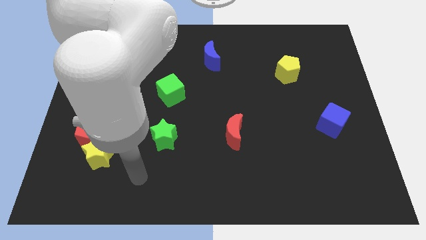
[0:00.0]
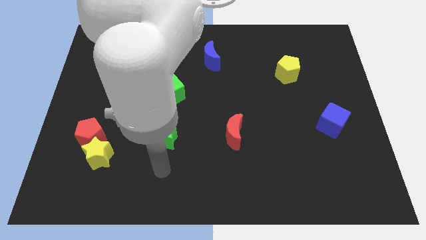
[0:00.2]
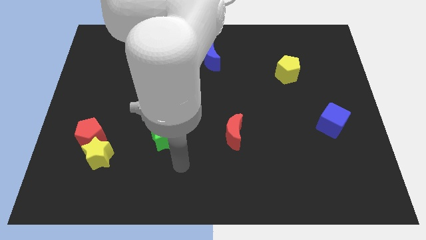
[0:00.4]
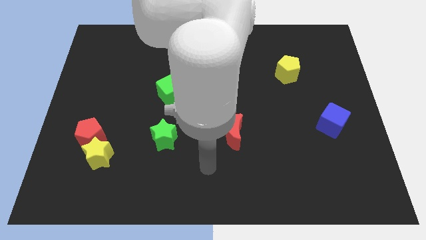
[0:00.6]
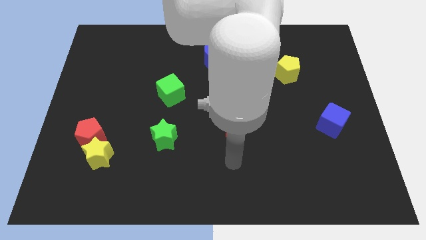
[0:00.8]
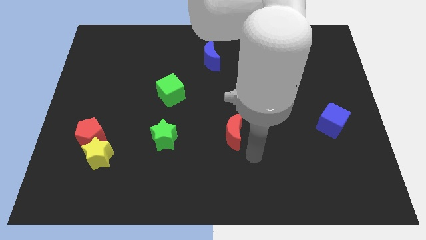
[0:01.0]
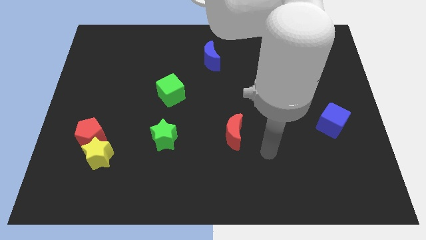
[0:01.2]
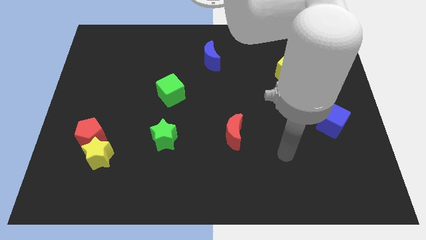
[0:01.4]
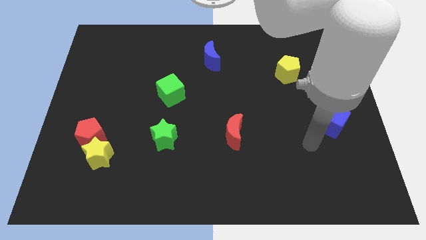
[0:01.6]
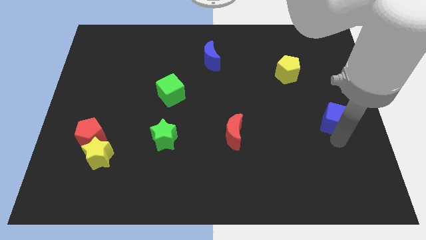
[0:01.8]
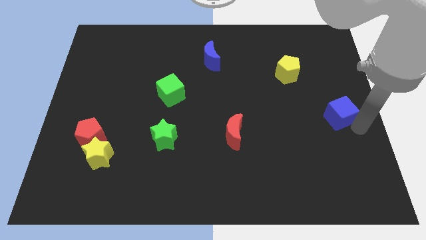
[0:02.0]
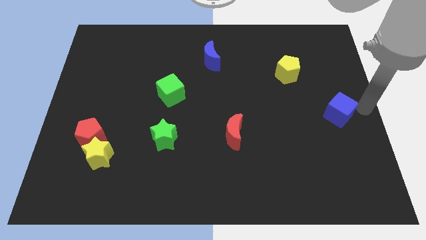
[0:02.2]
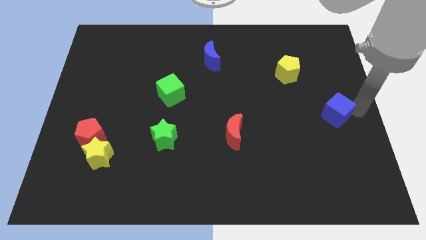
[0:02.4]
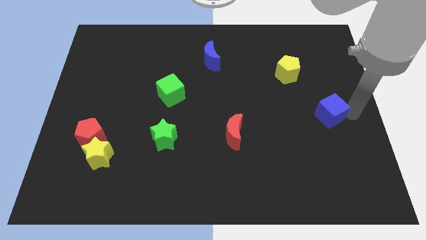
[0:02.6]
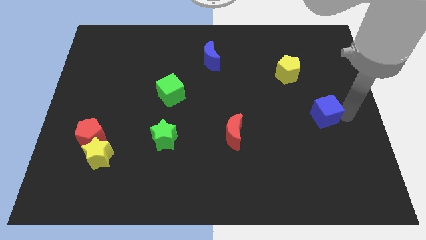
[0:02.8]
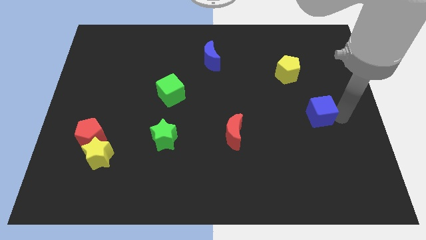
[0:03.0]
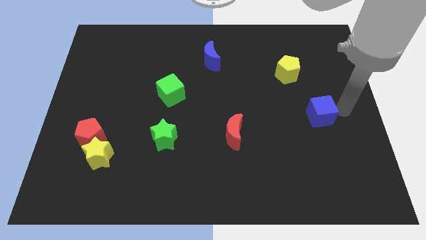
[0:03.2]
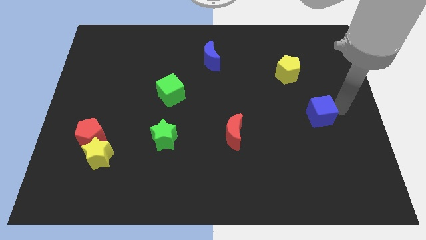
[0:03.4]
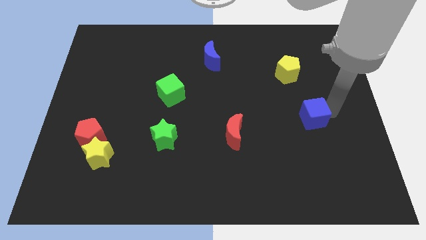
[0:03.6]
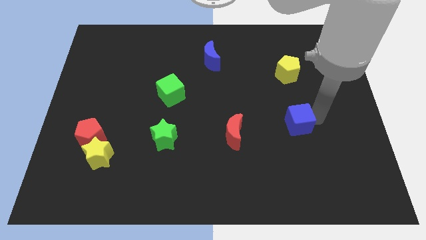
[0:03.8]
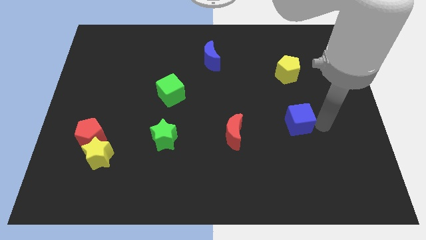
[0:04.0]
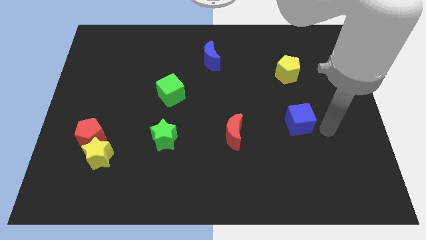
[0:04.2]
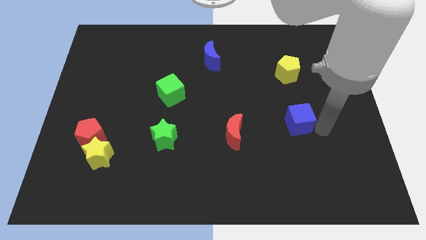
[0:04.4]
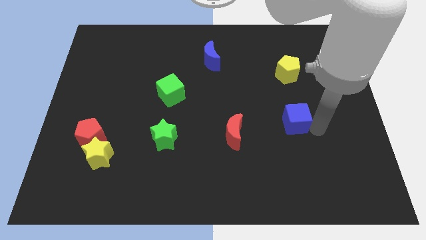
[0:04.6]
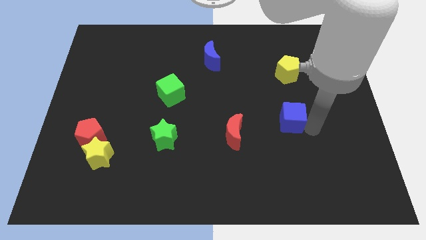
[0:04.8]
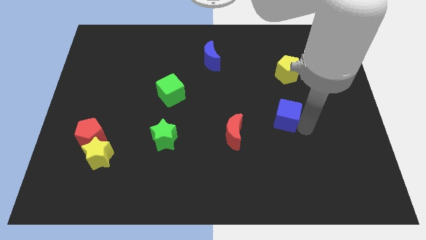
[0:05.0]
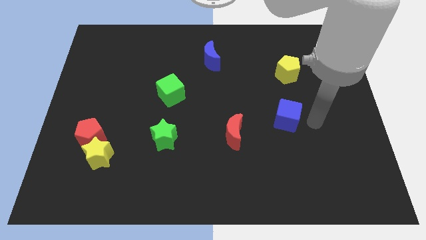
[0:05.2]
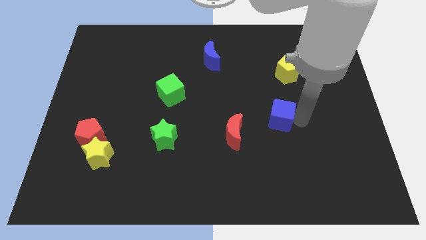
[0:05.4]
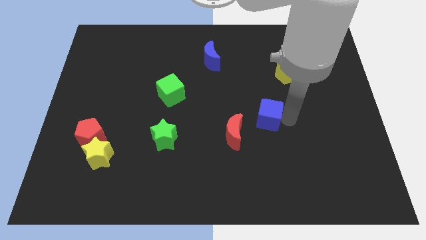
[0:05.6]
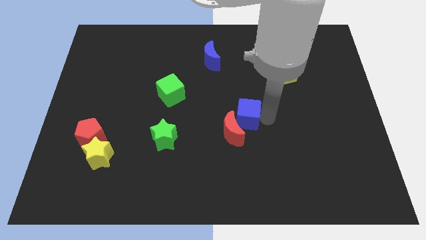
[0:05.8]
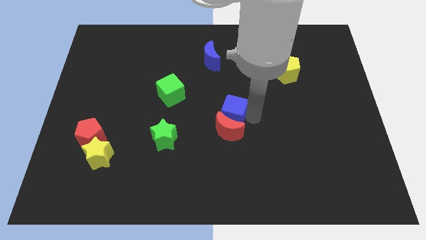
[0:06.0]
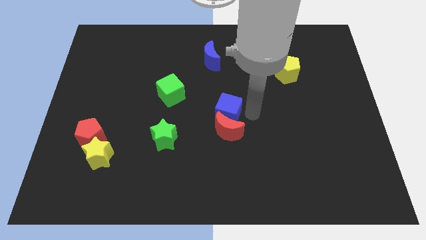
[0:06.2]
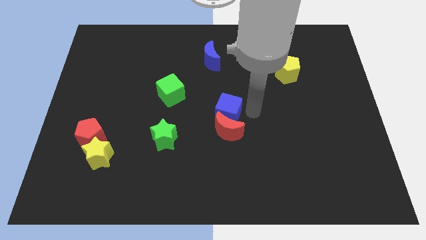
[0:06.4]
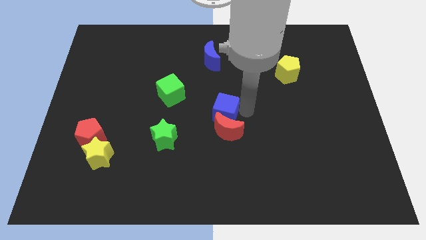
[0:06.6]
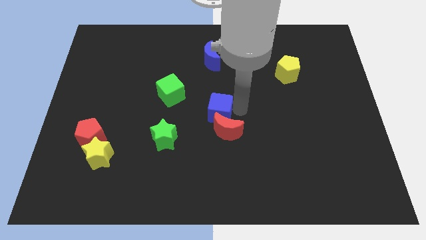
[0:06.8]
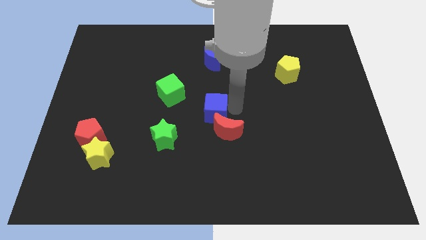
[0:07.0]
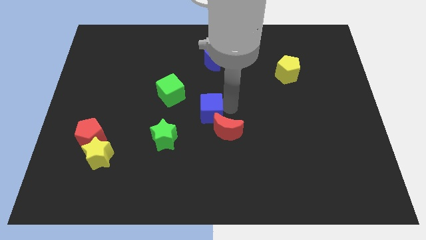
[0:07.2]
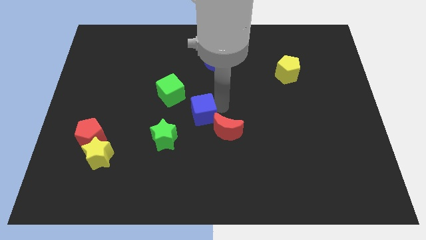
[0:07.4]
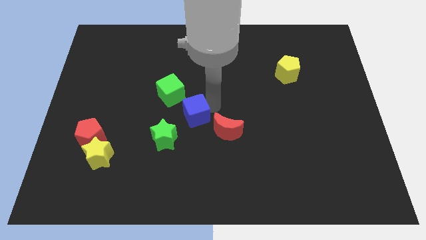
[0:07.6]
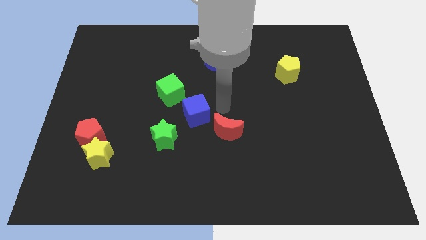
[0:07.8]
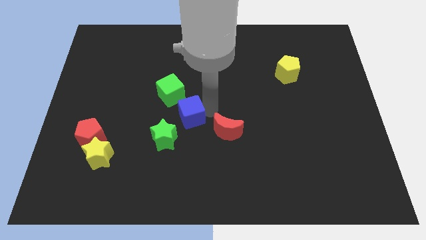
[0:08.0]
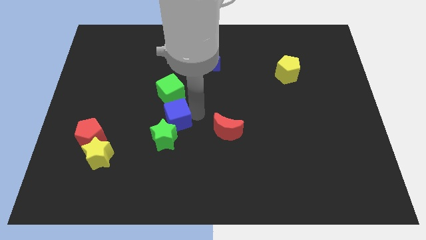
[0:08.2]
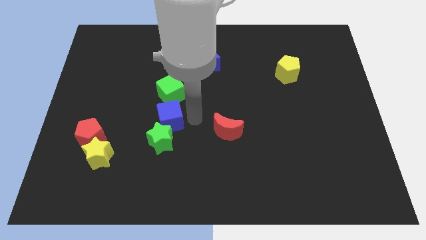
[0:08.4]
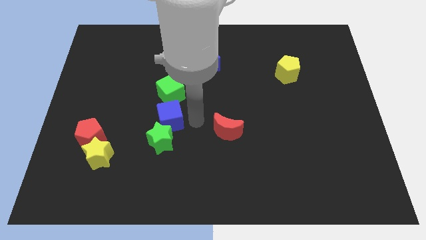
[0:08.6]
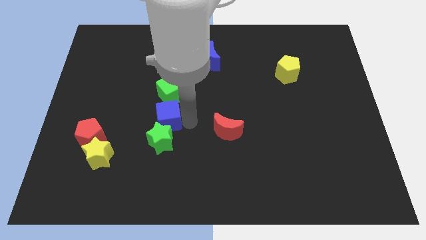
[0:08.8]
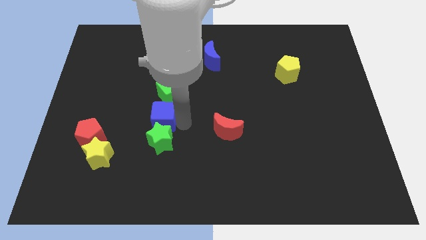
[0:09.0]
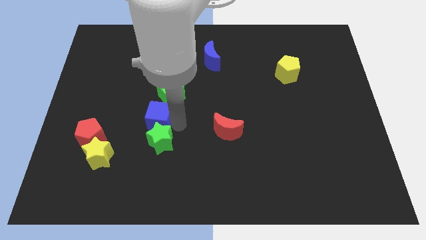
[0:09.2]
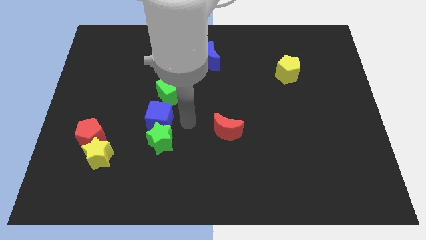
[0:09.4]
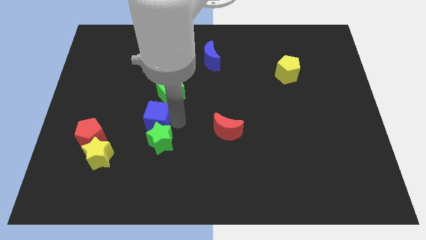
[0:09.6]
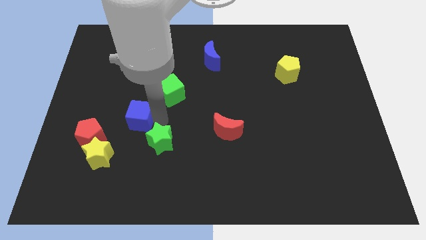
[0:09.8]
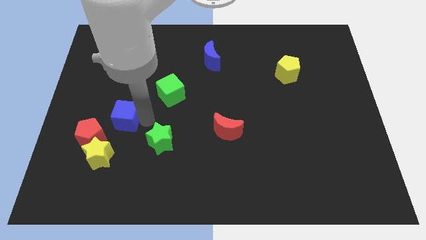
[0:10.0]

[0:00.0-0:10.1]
slide the blue cube to the top of the yellow star

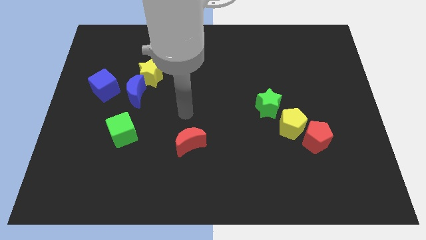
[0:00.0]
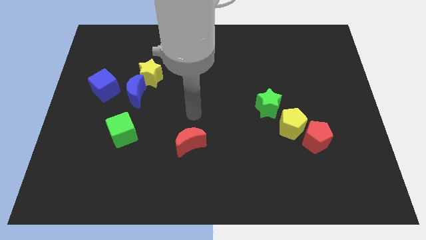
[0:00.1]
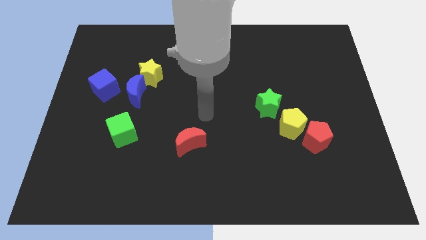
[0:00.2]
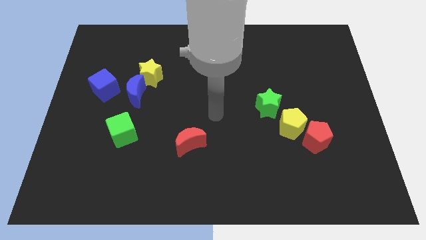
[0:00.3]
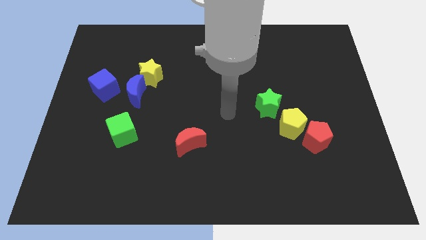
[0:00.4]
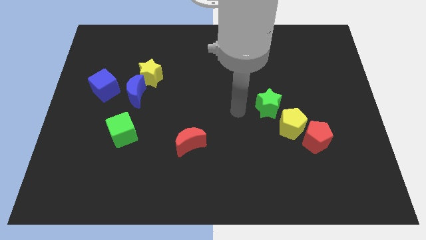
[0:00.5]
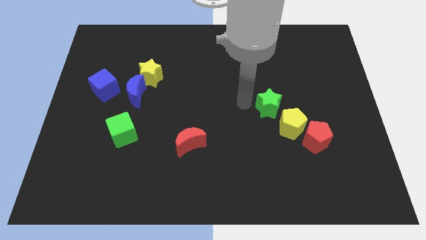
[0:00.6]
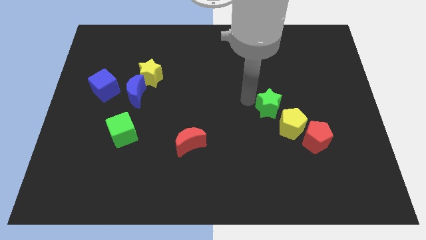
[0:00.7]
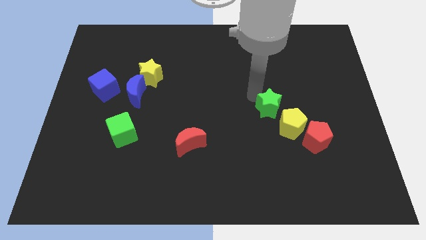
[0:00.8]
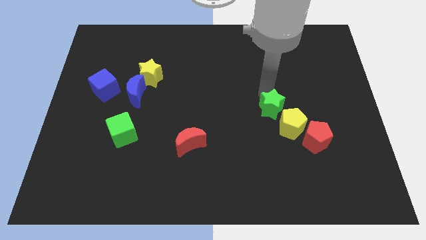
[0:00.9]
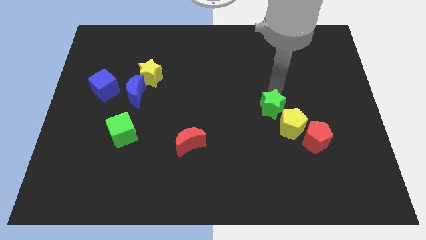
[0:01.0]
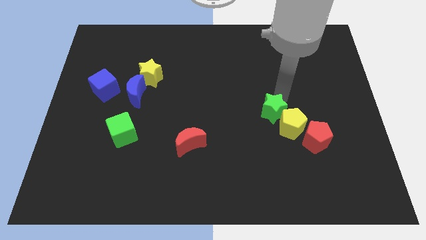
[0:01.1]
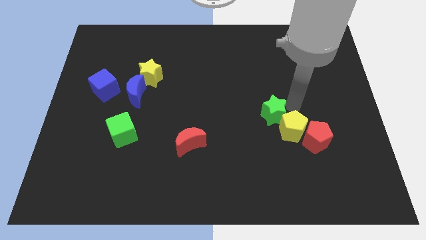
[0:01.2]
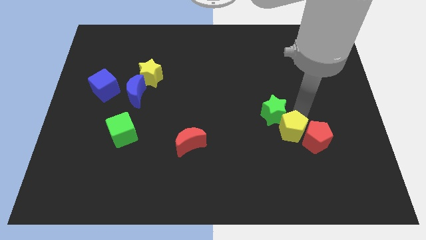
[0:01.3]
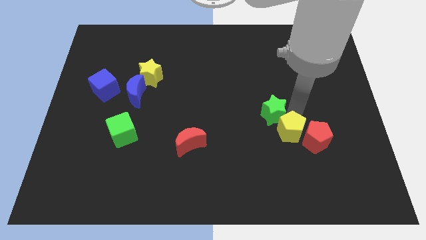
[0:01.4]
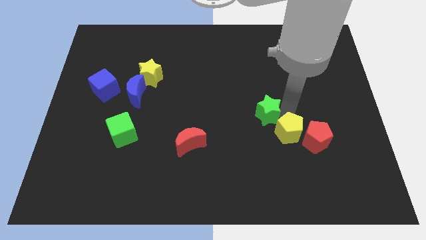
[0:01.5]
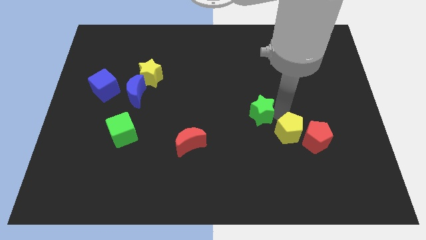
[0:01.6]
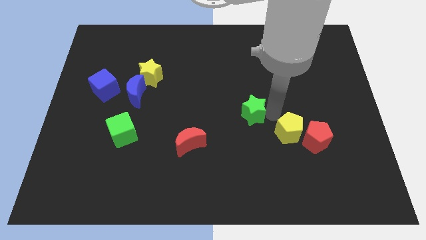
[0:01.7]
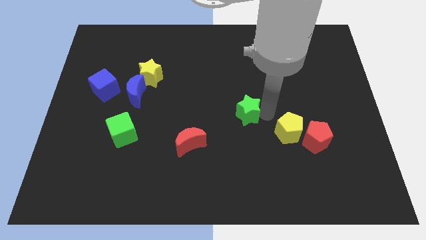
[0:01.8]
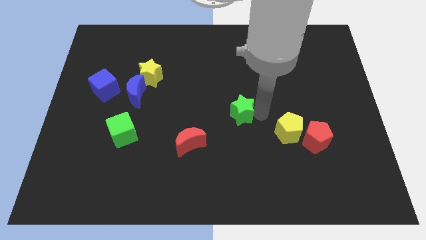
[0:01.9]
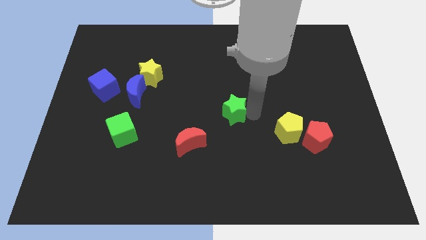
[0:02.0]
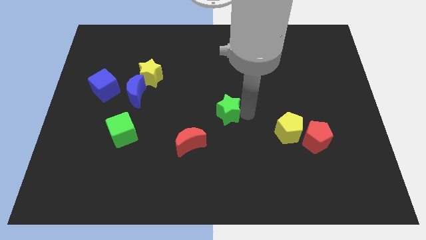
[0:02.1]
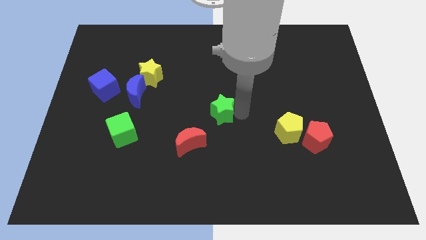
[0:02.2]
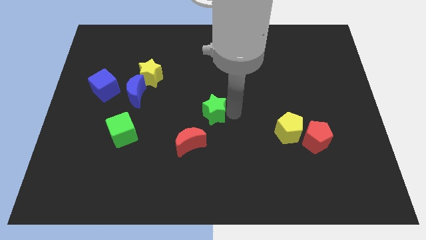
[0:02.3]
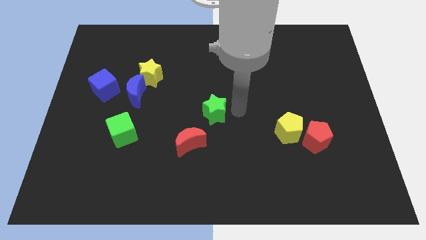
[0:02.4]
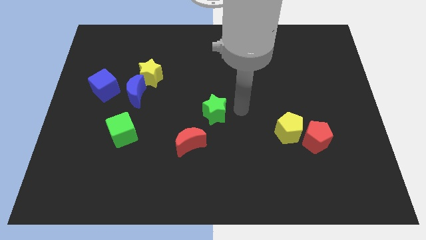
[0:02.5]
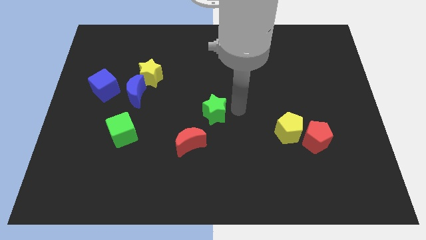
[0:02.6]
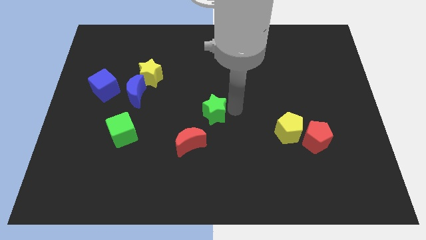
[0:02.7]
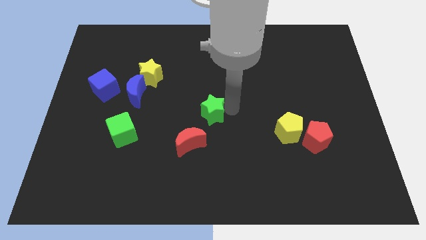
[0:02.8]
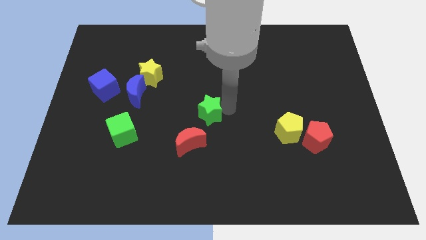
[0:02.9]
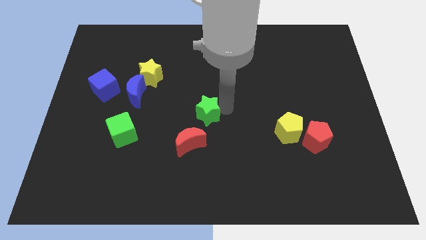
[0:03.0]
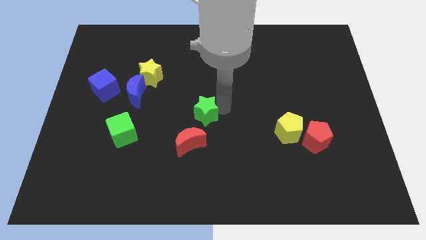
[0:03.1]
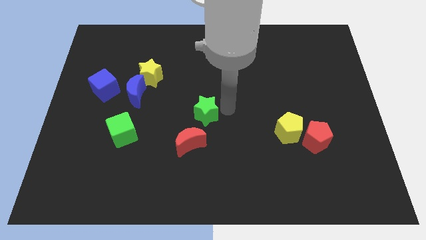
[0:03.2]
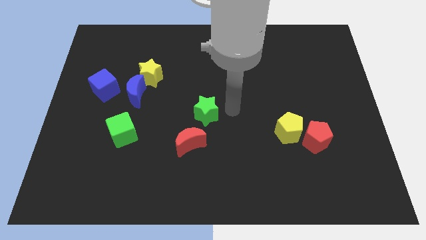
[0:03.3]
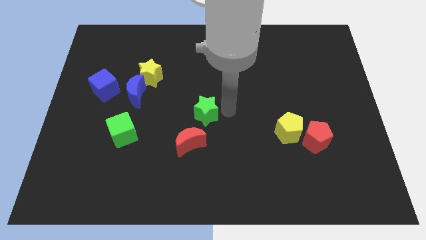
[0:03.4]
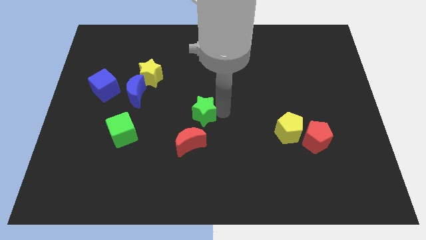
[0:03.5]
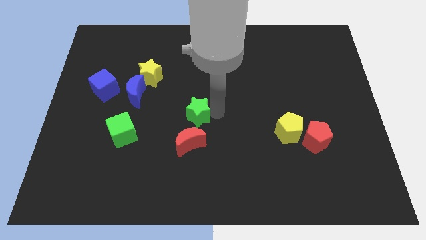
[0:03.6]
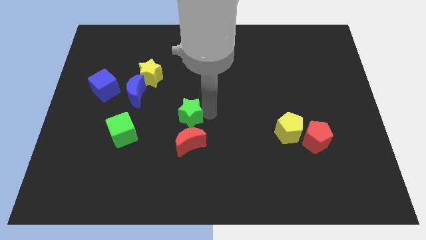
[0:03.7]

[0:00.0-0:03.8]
slide the green star to the top left of the red moon
